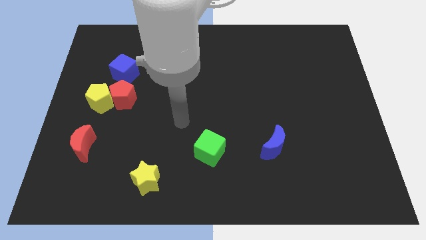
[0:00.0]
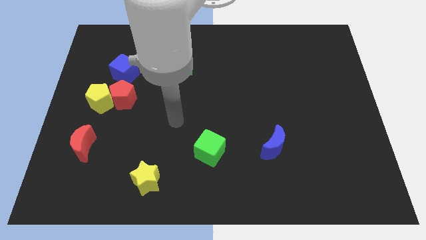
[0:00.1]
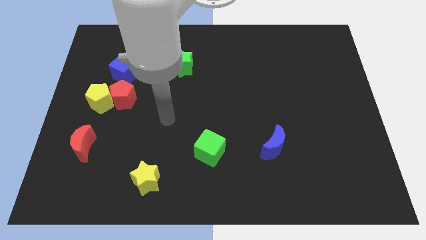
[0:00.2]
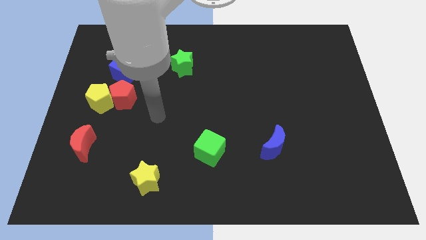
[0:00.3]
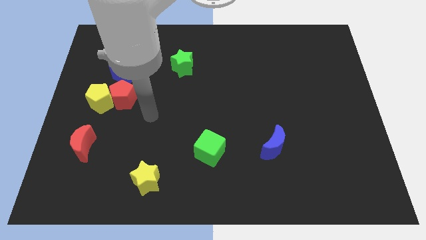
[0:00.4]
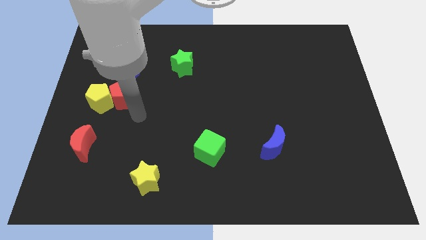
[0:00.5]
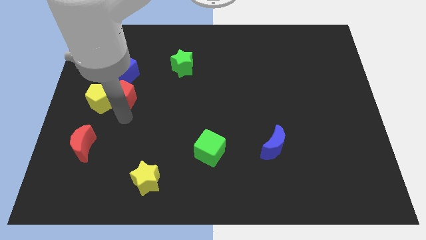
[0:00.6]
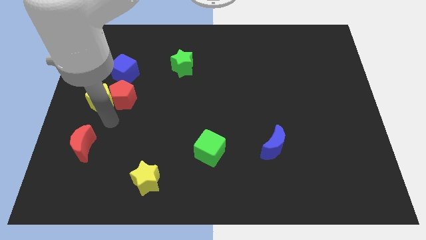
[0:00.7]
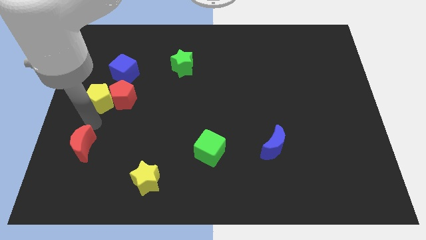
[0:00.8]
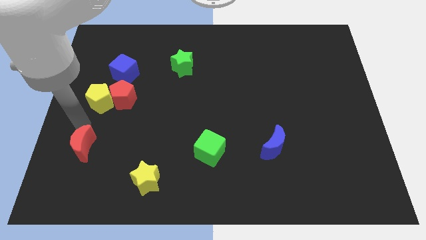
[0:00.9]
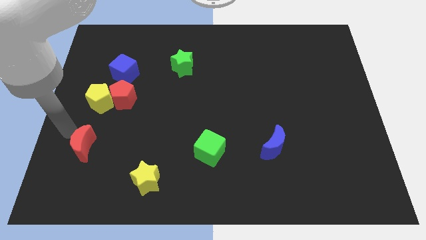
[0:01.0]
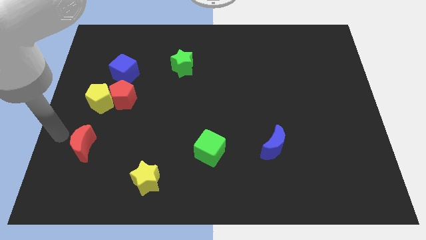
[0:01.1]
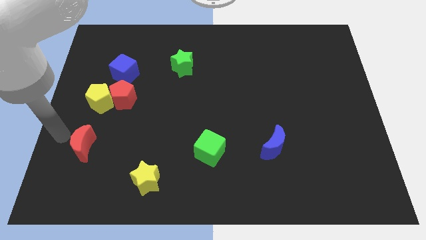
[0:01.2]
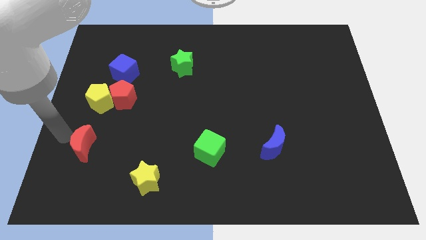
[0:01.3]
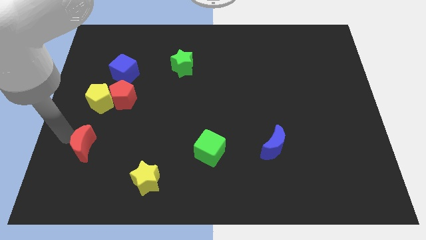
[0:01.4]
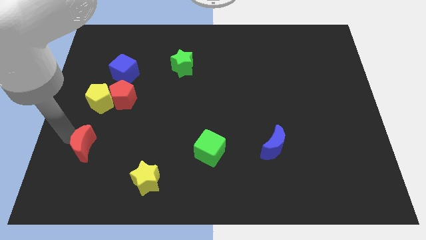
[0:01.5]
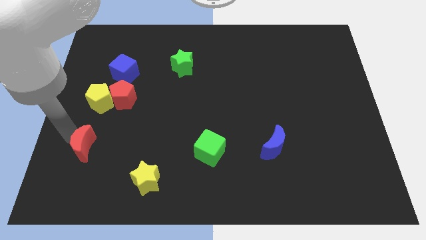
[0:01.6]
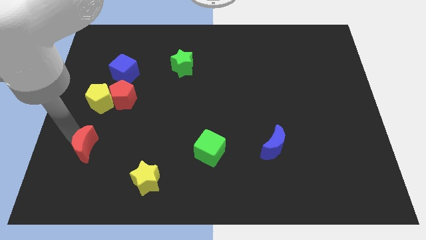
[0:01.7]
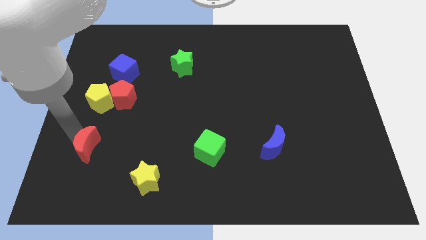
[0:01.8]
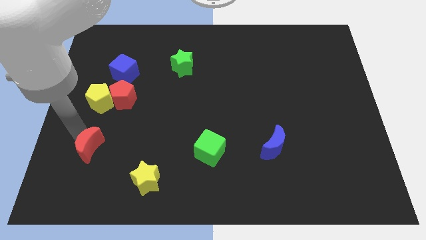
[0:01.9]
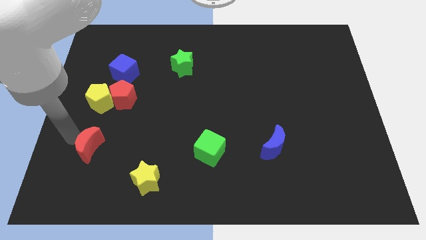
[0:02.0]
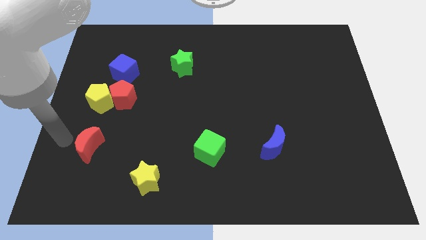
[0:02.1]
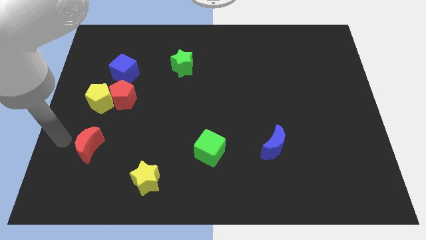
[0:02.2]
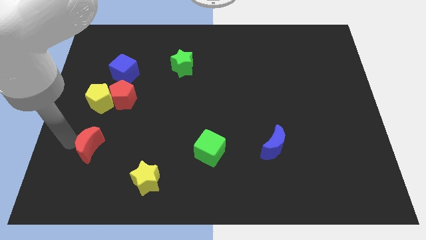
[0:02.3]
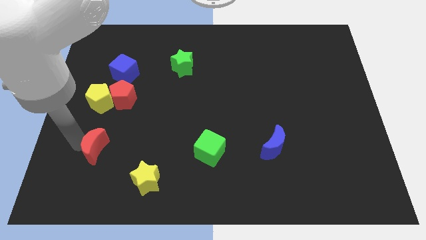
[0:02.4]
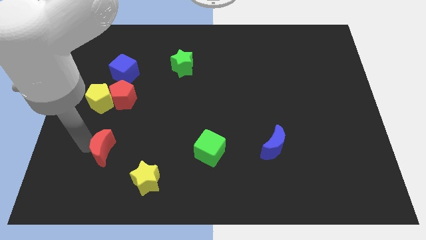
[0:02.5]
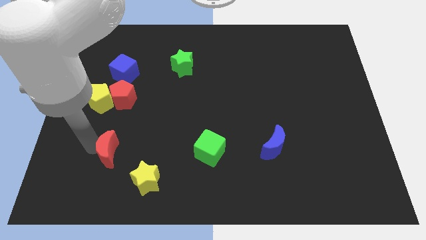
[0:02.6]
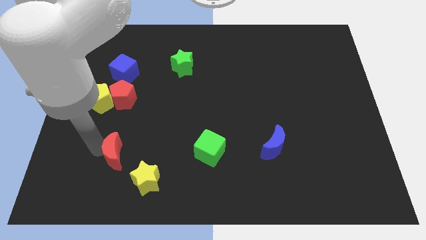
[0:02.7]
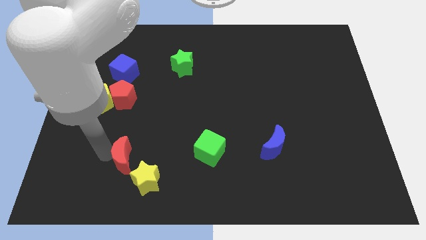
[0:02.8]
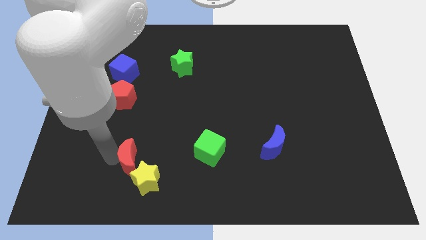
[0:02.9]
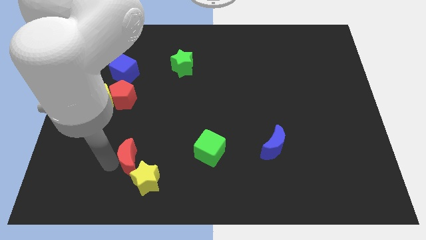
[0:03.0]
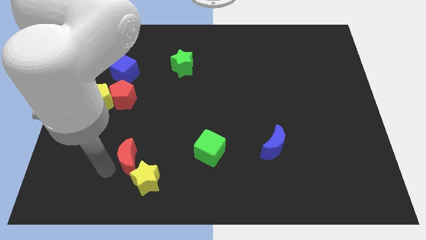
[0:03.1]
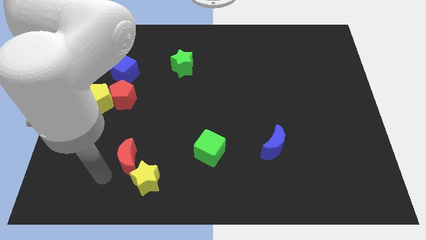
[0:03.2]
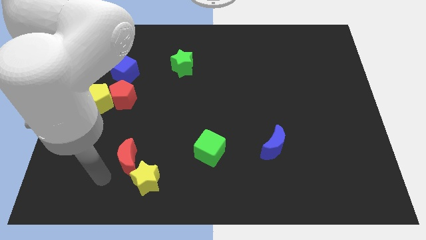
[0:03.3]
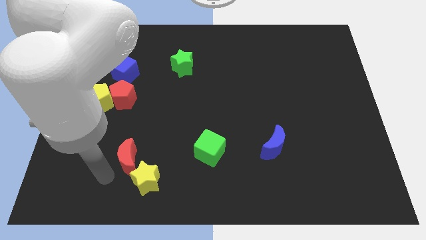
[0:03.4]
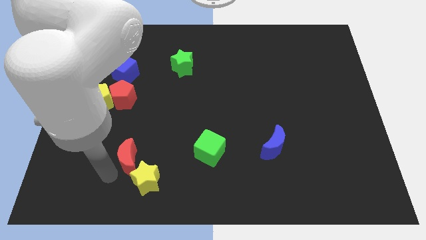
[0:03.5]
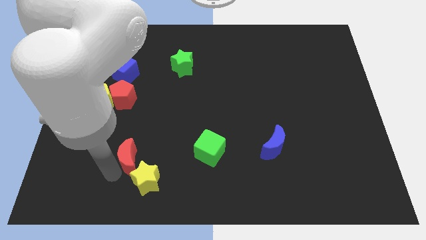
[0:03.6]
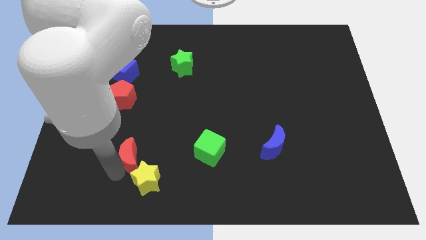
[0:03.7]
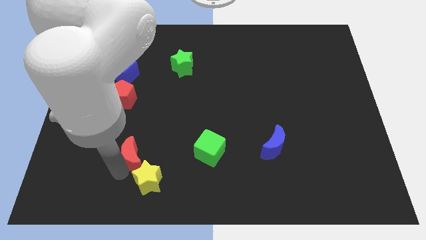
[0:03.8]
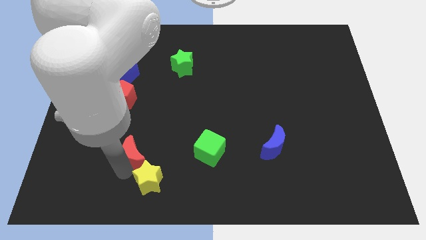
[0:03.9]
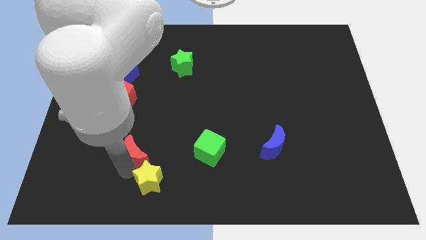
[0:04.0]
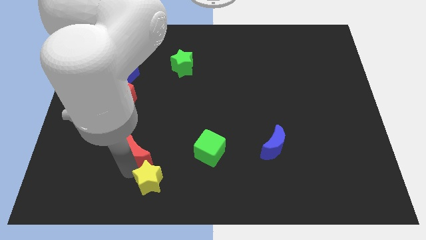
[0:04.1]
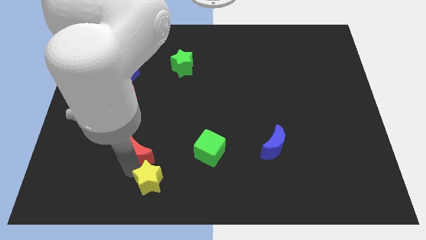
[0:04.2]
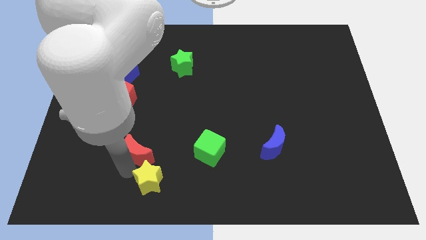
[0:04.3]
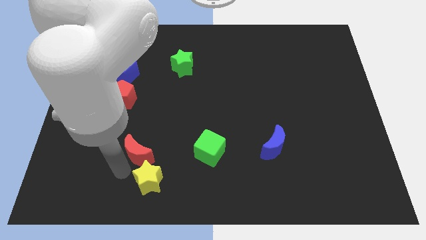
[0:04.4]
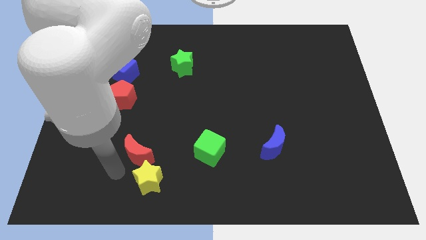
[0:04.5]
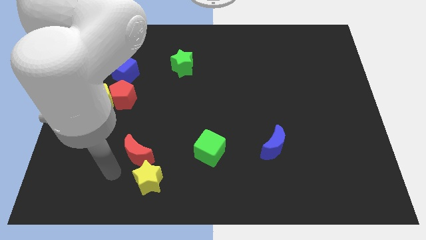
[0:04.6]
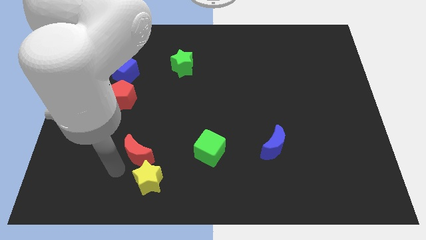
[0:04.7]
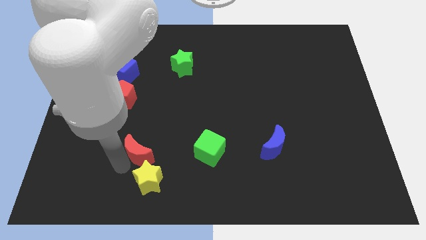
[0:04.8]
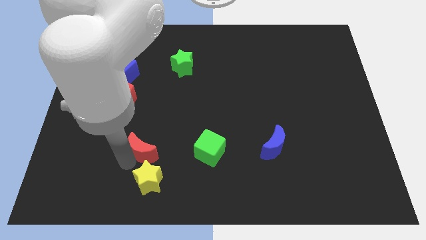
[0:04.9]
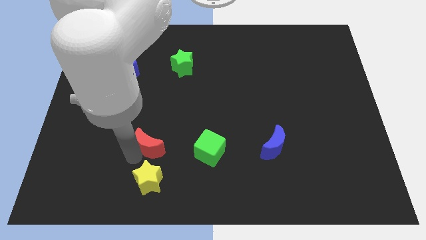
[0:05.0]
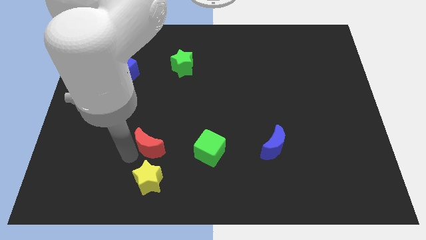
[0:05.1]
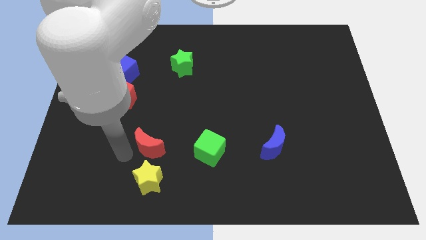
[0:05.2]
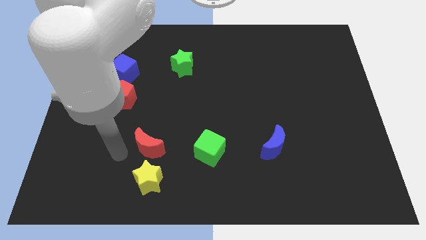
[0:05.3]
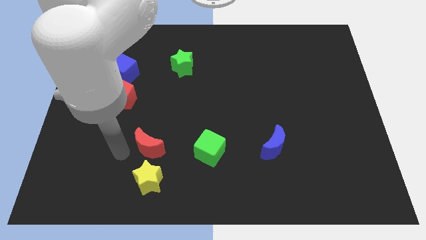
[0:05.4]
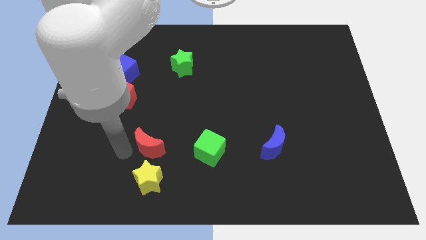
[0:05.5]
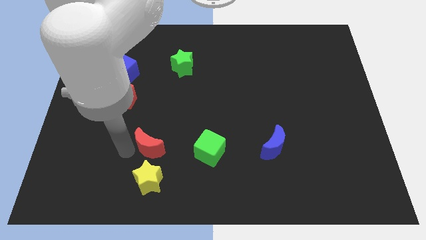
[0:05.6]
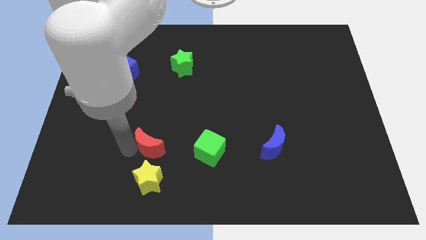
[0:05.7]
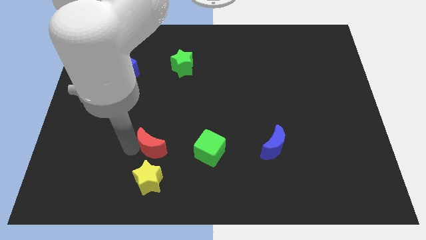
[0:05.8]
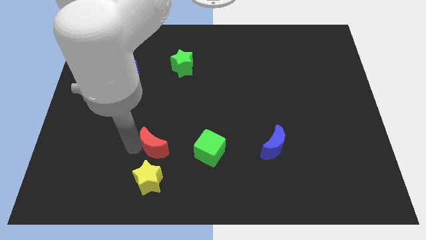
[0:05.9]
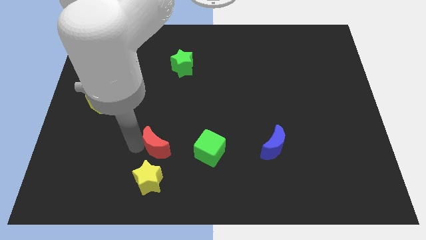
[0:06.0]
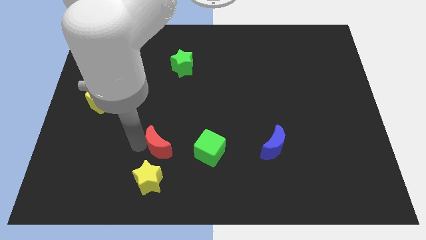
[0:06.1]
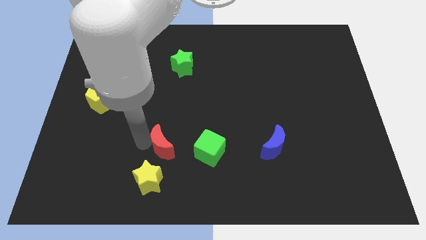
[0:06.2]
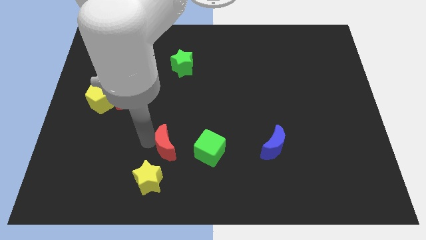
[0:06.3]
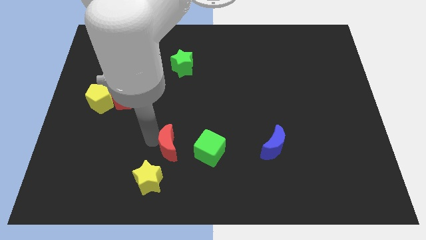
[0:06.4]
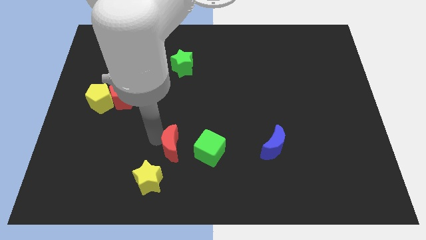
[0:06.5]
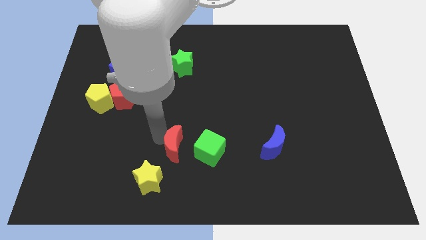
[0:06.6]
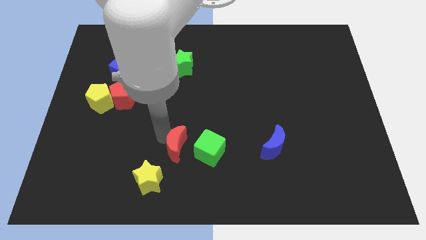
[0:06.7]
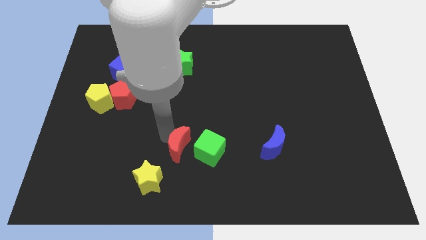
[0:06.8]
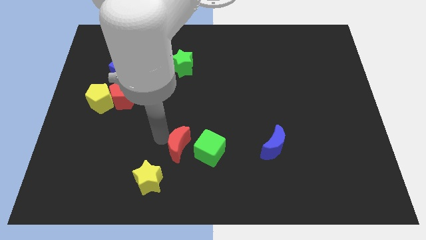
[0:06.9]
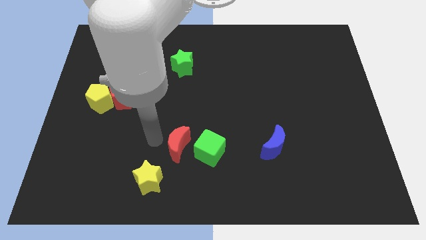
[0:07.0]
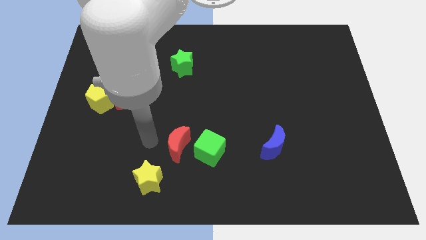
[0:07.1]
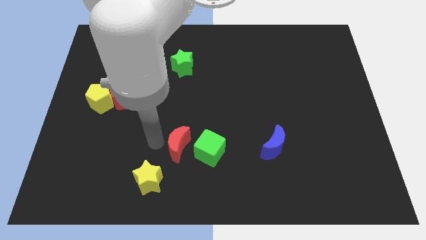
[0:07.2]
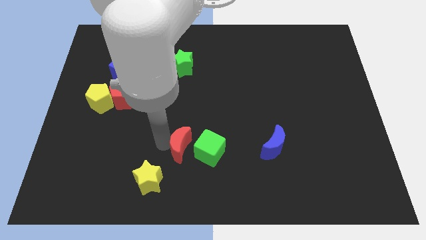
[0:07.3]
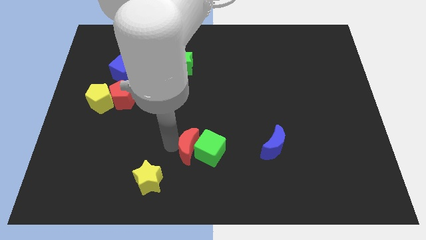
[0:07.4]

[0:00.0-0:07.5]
move the red moon towards the green cube

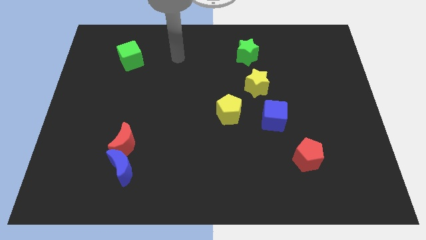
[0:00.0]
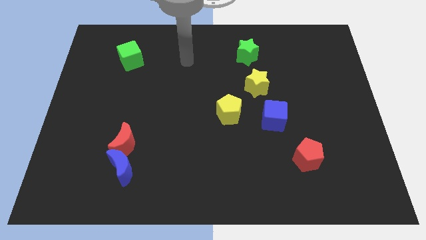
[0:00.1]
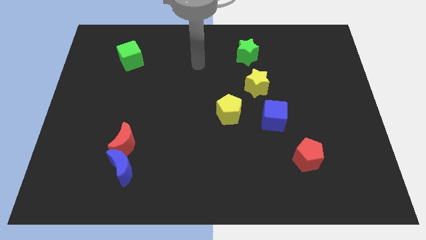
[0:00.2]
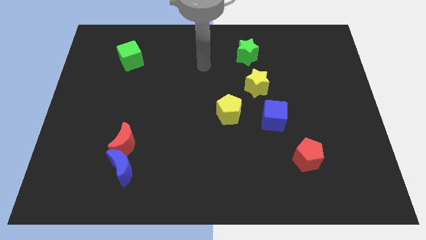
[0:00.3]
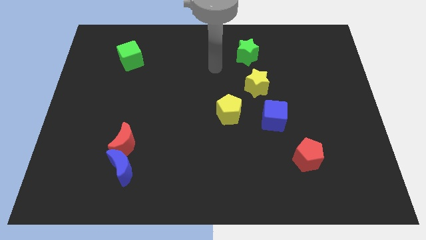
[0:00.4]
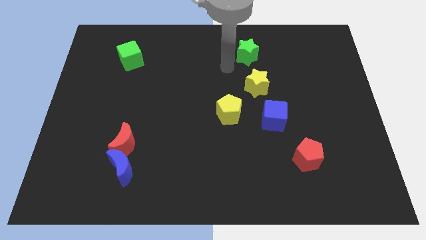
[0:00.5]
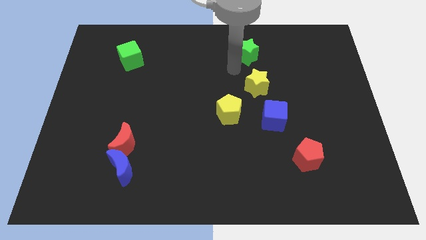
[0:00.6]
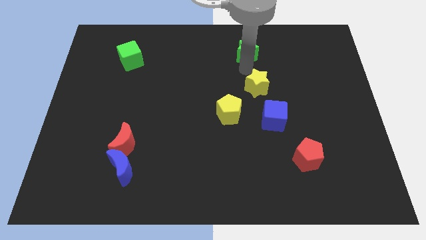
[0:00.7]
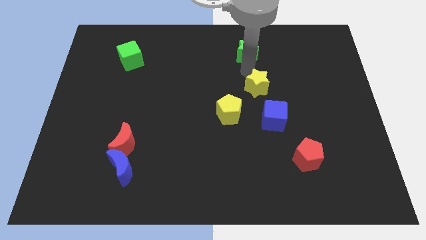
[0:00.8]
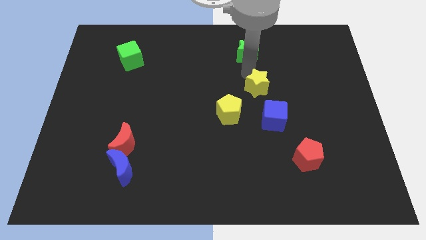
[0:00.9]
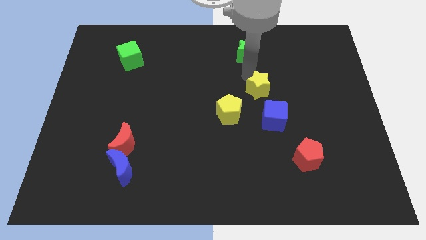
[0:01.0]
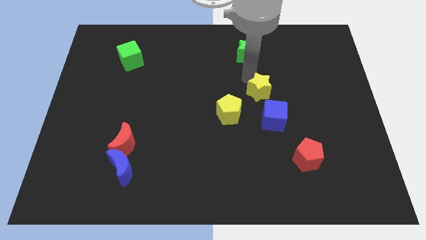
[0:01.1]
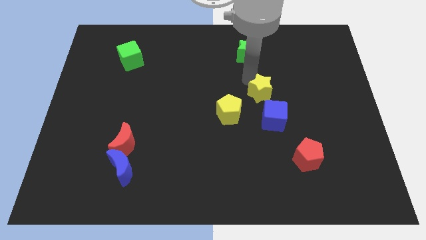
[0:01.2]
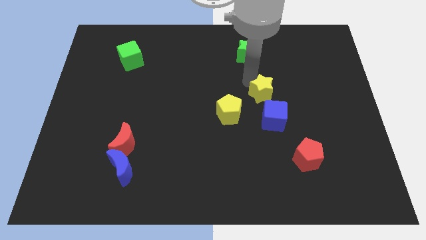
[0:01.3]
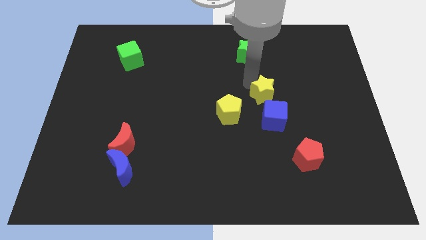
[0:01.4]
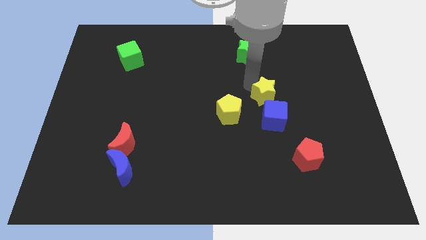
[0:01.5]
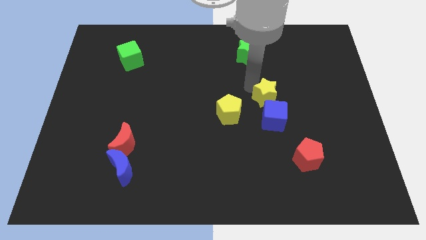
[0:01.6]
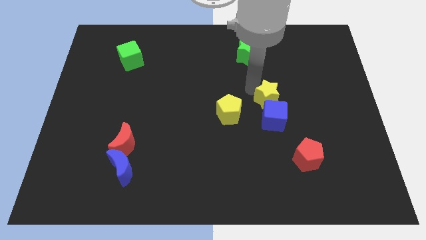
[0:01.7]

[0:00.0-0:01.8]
move the yellow star to the blue cube
